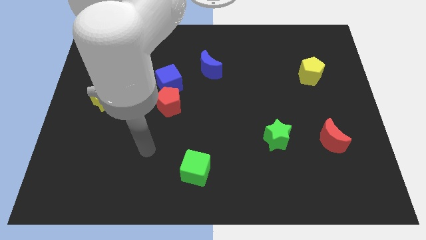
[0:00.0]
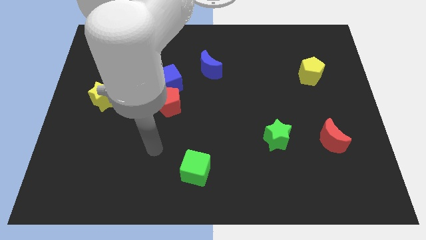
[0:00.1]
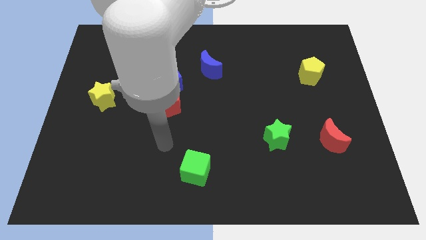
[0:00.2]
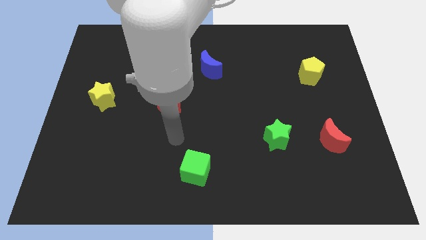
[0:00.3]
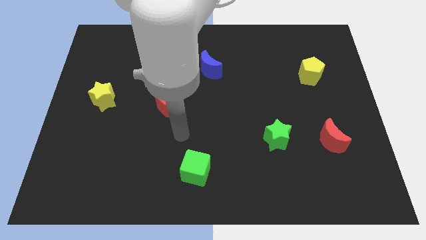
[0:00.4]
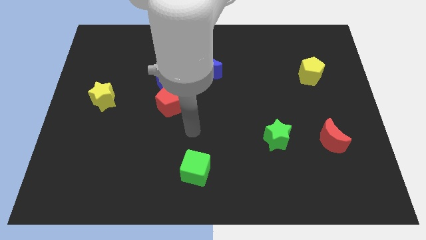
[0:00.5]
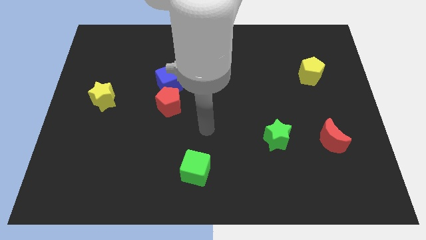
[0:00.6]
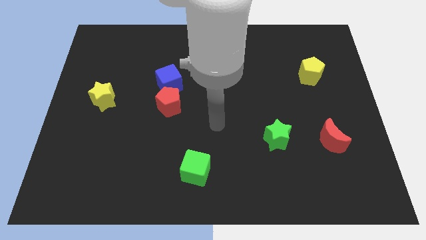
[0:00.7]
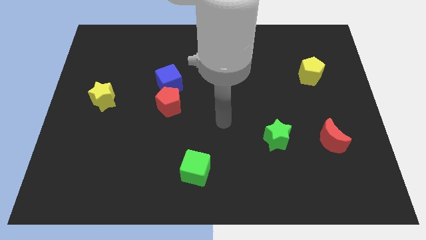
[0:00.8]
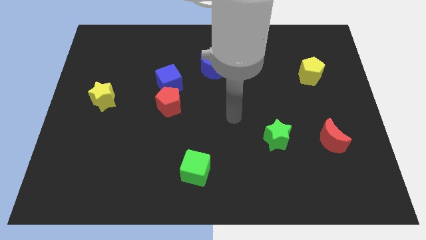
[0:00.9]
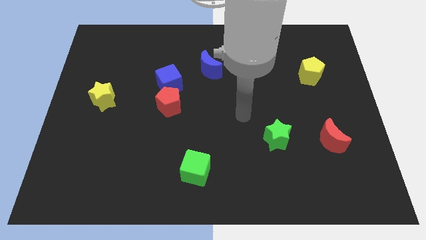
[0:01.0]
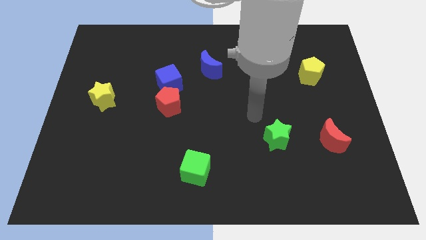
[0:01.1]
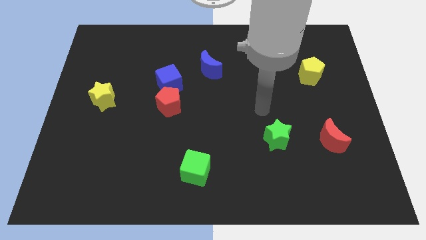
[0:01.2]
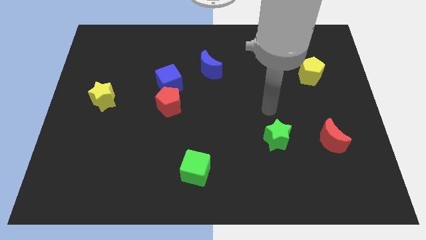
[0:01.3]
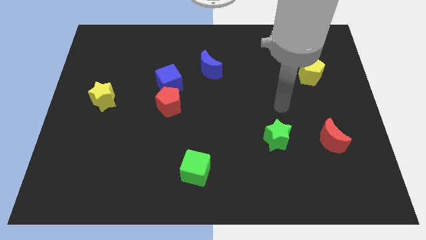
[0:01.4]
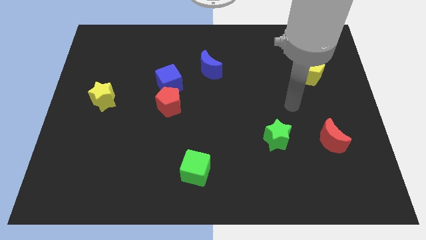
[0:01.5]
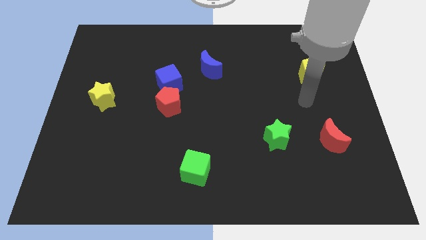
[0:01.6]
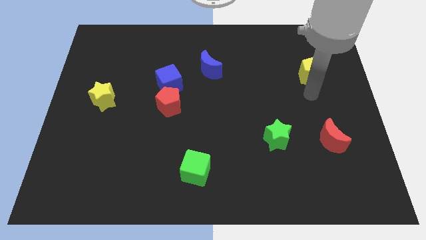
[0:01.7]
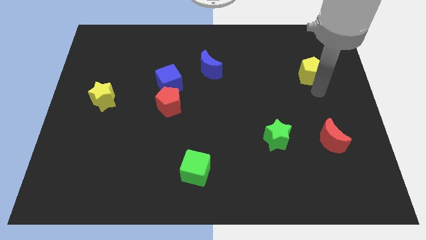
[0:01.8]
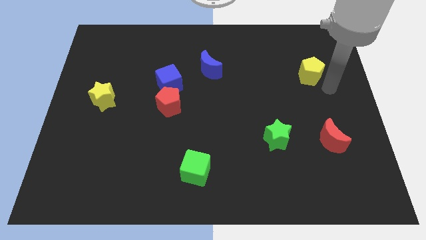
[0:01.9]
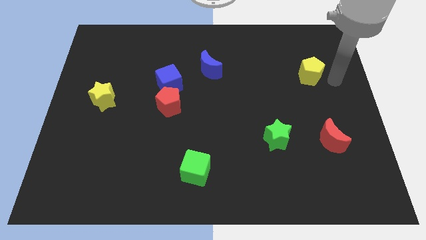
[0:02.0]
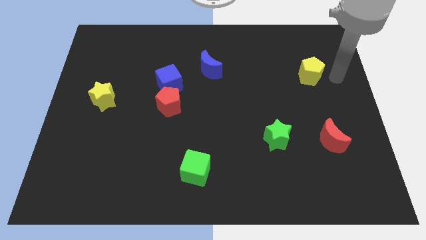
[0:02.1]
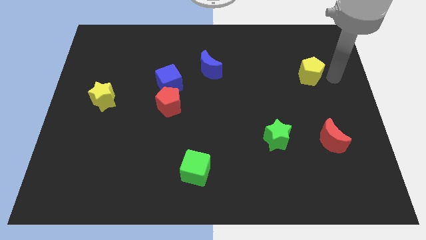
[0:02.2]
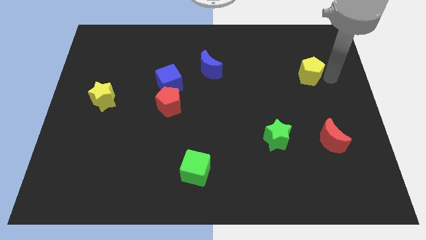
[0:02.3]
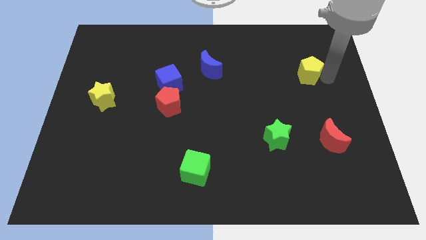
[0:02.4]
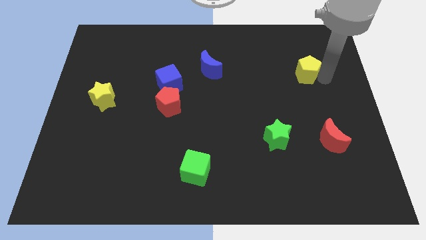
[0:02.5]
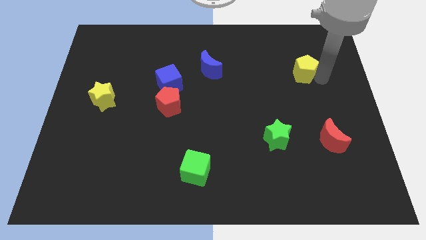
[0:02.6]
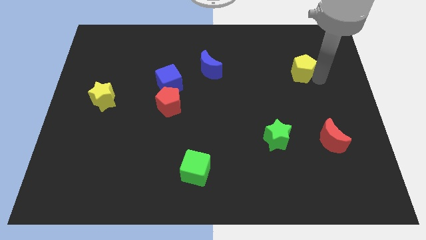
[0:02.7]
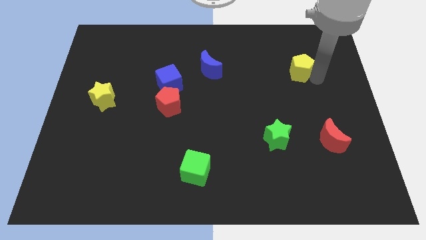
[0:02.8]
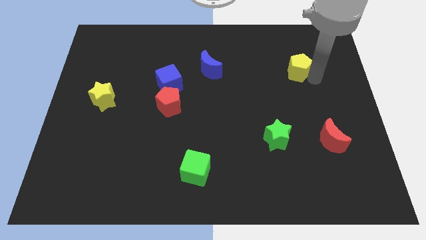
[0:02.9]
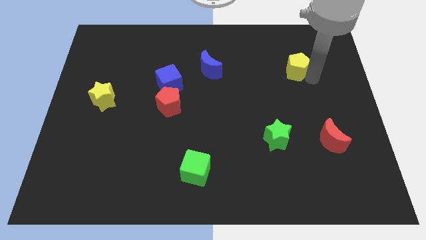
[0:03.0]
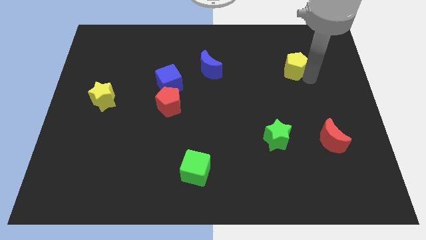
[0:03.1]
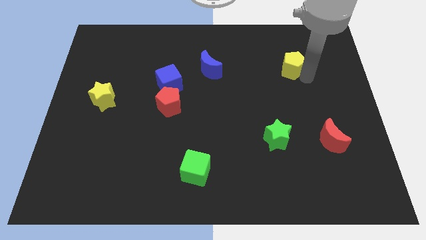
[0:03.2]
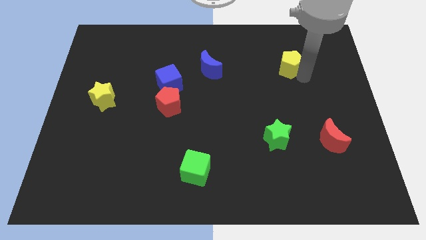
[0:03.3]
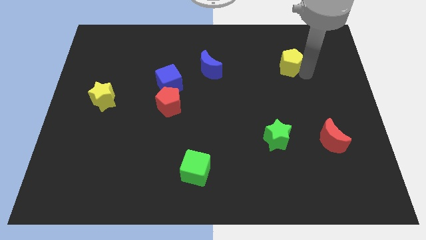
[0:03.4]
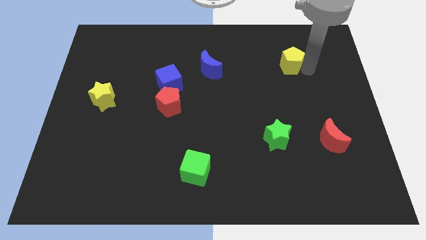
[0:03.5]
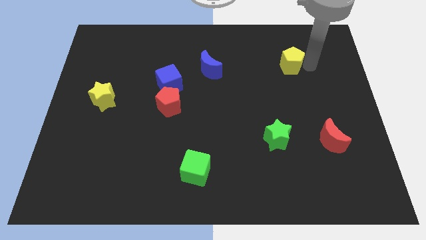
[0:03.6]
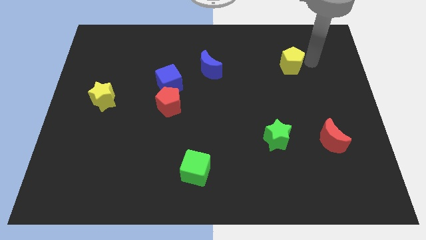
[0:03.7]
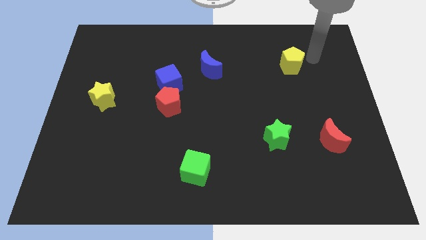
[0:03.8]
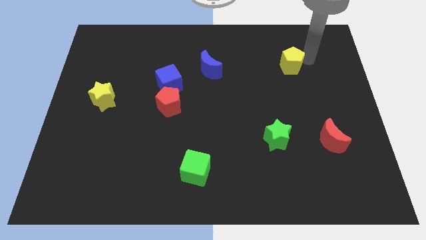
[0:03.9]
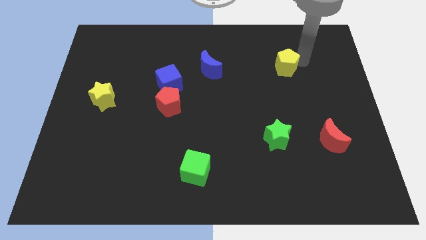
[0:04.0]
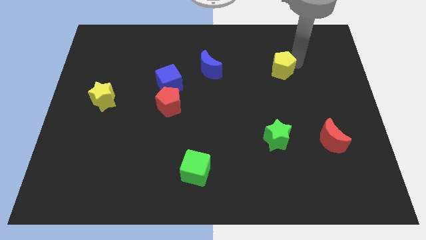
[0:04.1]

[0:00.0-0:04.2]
slide the yellow pentagon left a little bit

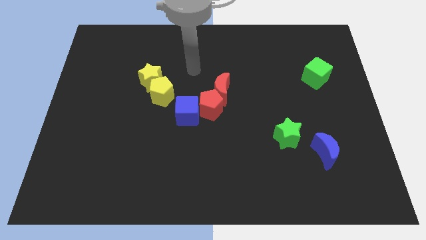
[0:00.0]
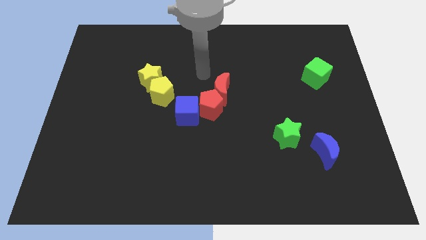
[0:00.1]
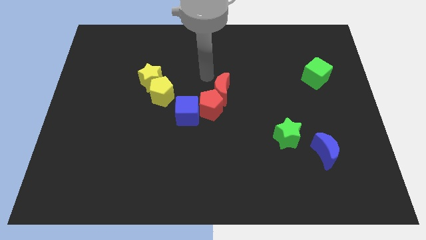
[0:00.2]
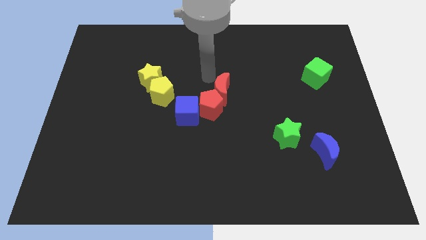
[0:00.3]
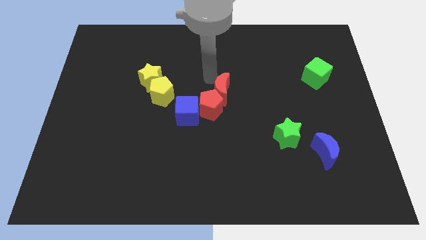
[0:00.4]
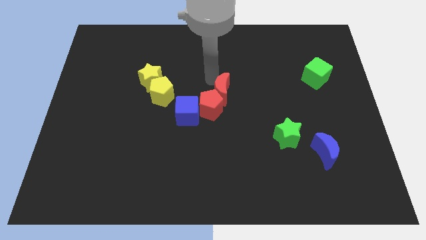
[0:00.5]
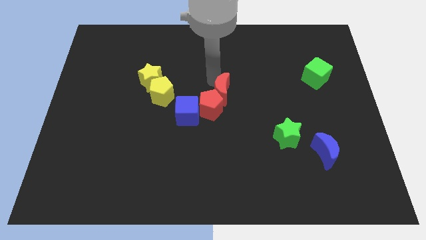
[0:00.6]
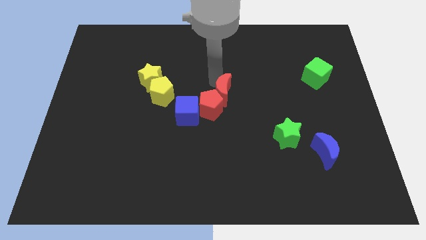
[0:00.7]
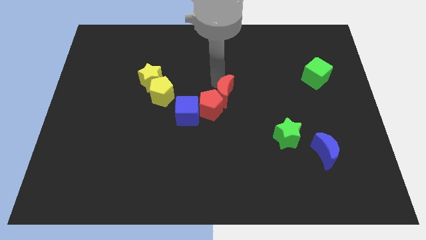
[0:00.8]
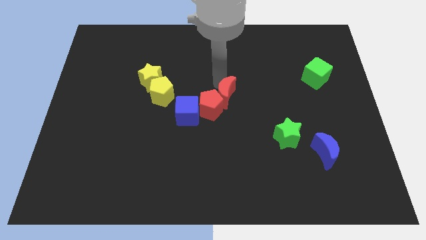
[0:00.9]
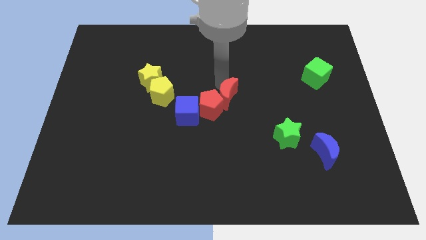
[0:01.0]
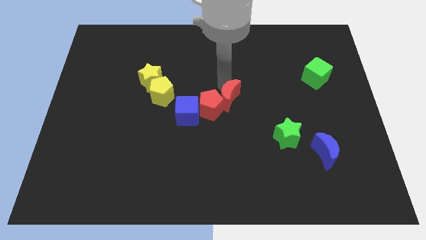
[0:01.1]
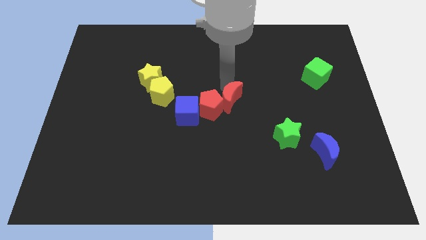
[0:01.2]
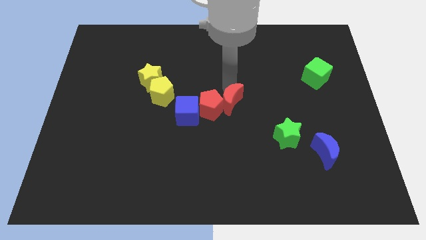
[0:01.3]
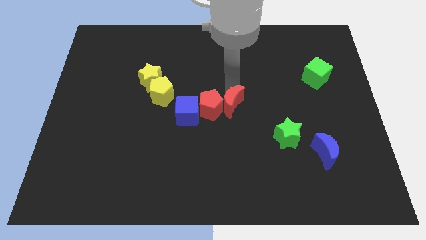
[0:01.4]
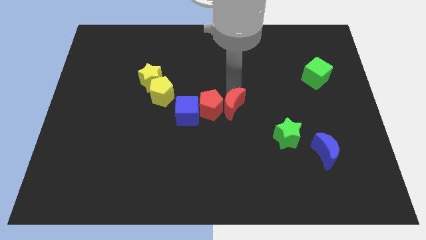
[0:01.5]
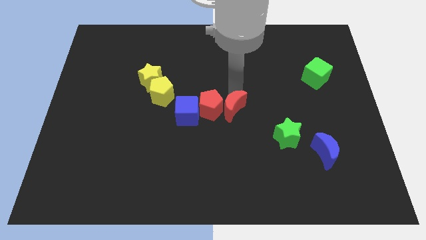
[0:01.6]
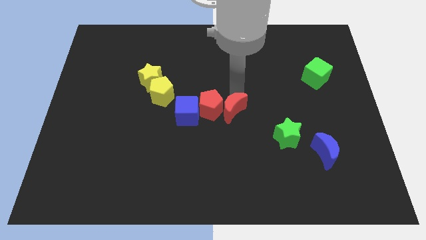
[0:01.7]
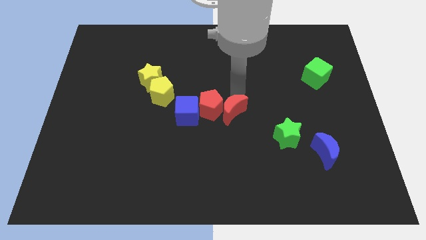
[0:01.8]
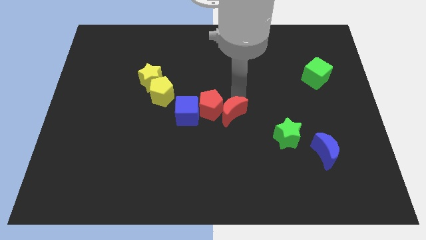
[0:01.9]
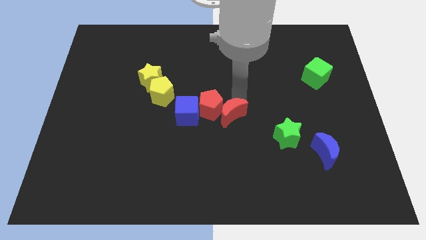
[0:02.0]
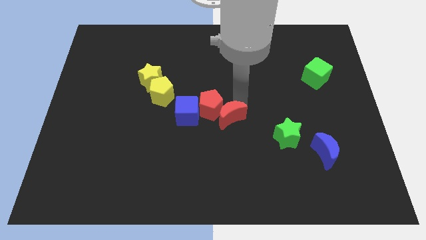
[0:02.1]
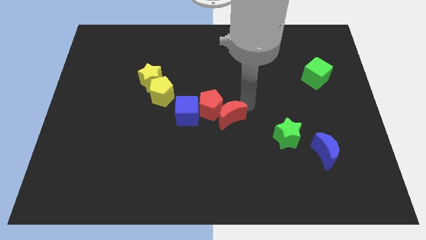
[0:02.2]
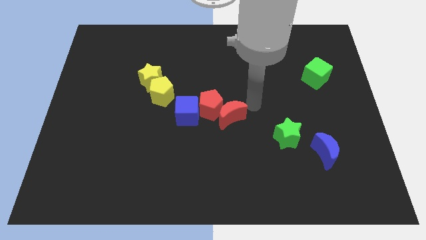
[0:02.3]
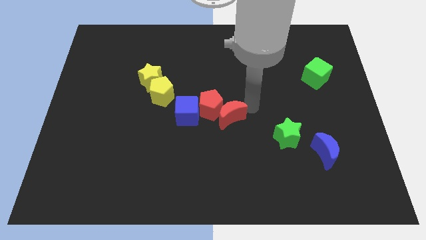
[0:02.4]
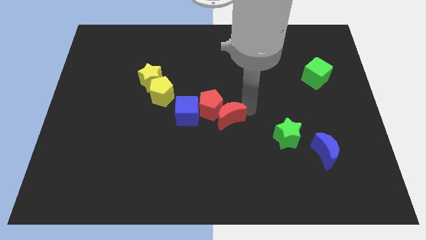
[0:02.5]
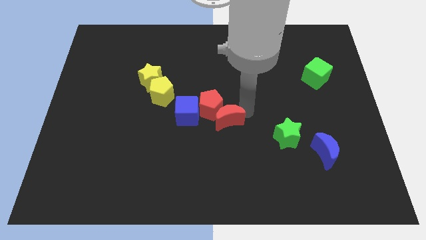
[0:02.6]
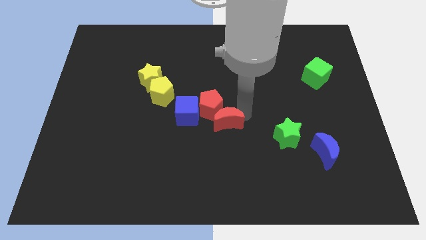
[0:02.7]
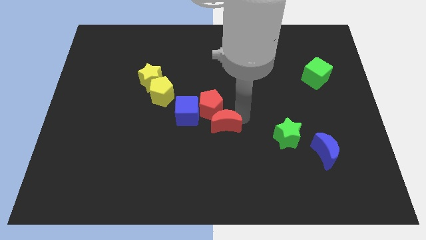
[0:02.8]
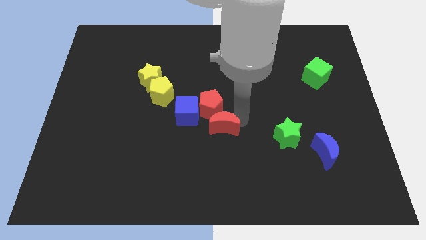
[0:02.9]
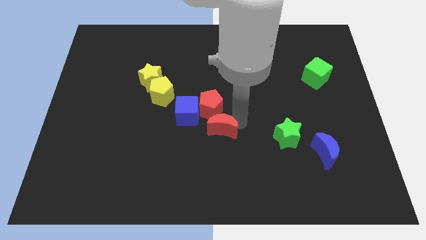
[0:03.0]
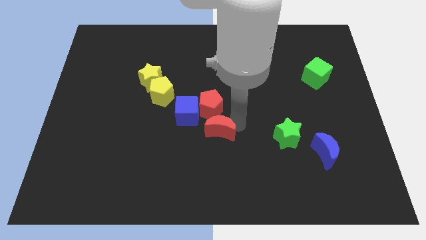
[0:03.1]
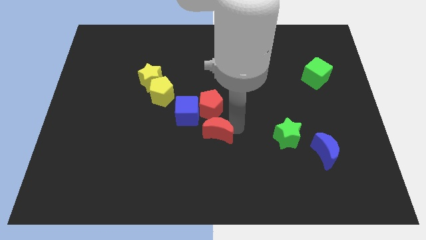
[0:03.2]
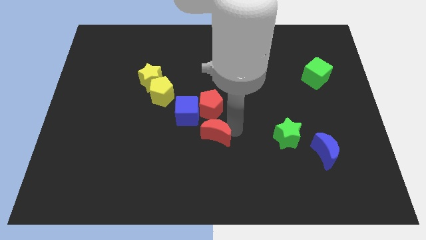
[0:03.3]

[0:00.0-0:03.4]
slightly slide the red moon diagonally down and to the left

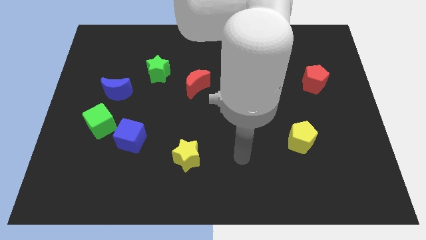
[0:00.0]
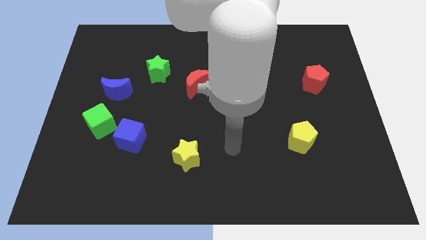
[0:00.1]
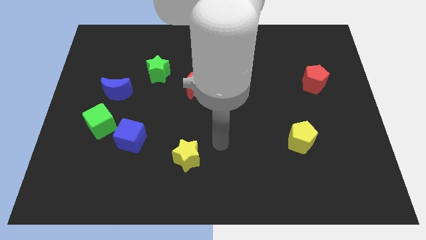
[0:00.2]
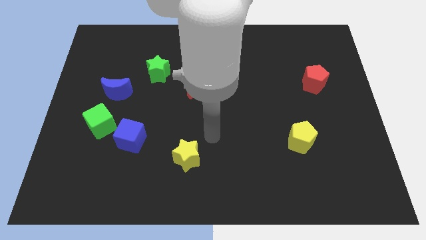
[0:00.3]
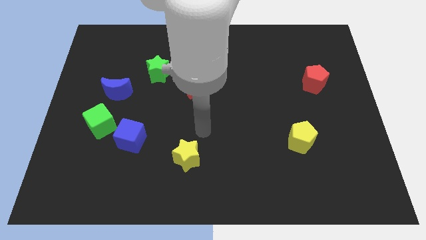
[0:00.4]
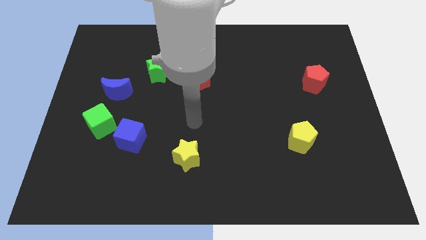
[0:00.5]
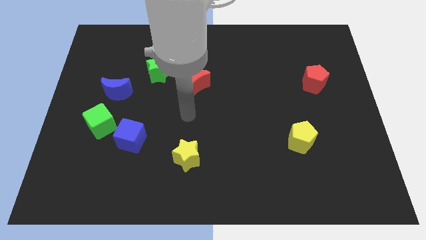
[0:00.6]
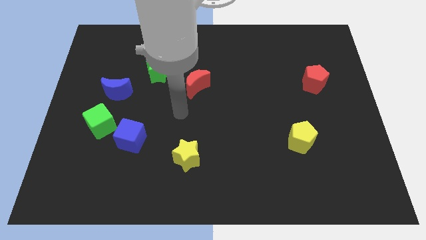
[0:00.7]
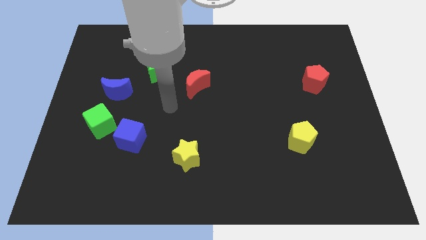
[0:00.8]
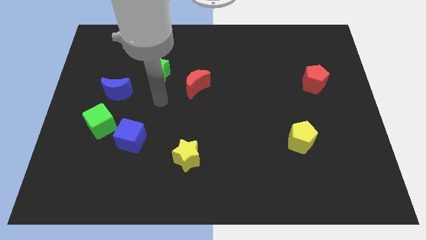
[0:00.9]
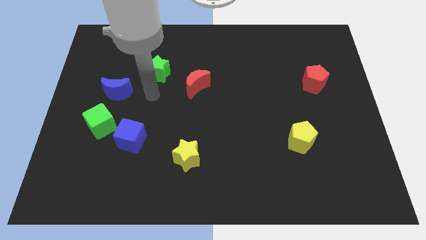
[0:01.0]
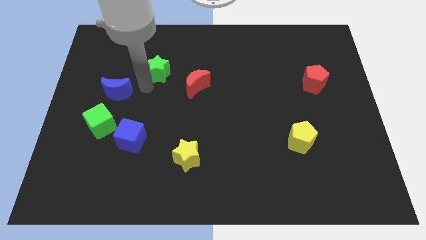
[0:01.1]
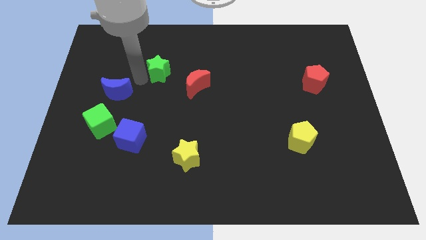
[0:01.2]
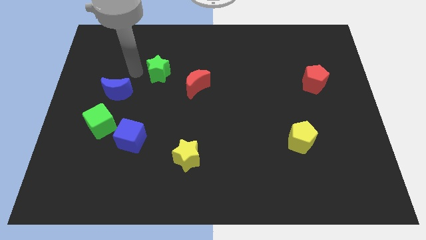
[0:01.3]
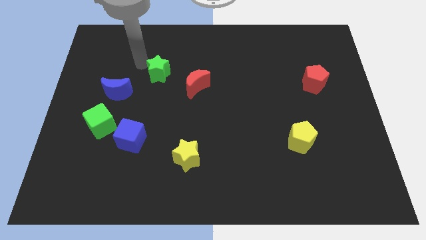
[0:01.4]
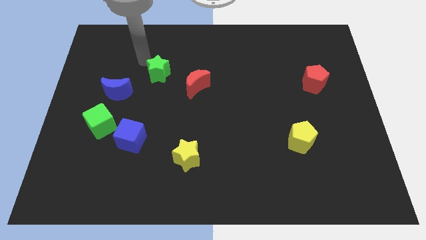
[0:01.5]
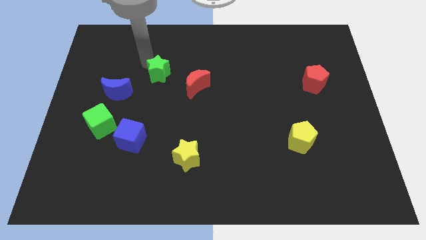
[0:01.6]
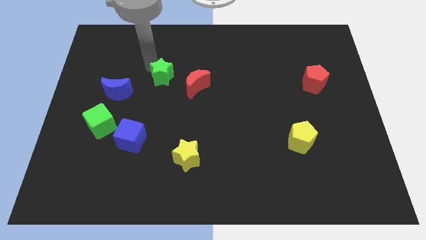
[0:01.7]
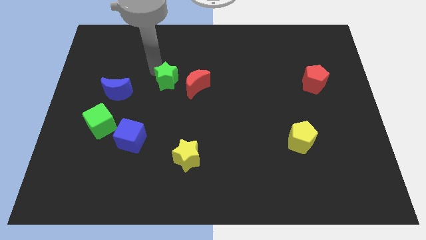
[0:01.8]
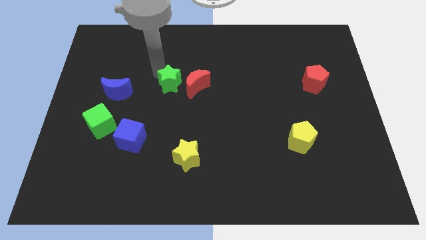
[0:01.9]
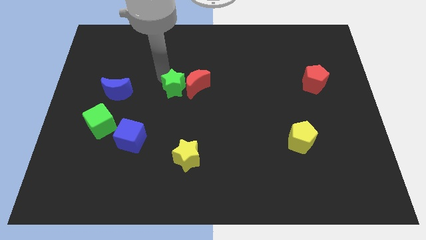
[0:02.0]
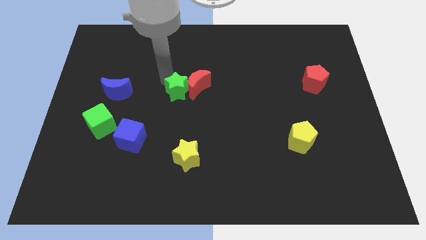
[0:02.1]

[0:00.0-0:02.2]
push the green star slightly diagonally down and to the right
